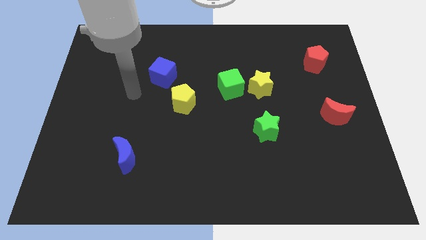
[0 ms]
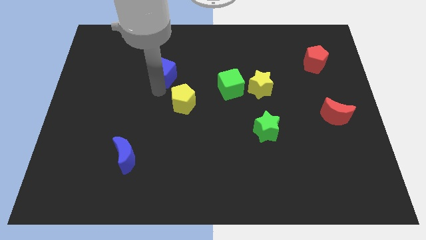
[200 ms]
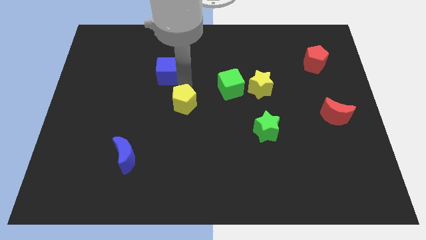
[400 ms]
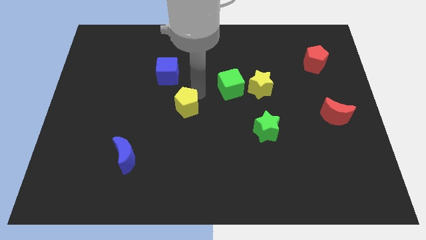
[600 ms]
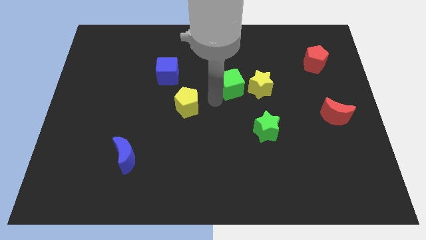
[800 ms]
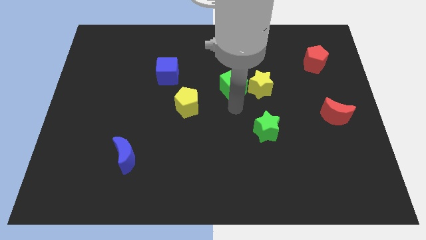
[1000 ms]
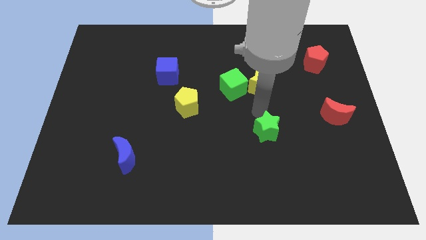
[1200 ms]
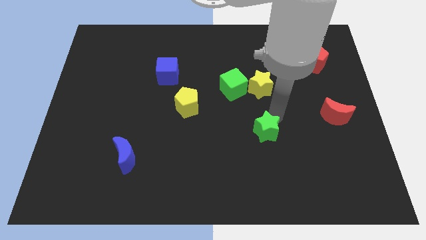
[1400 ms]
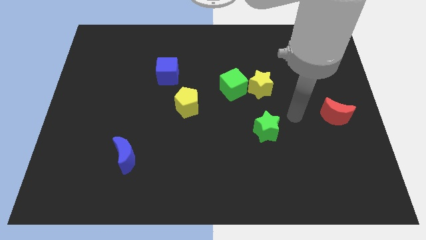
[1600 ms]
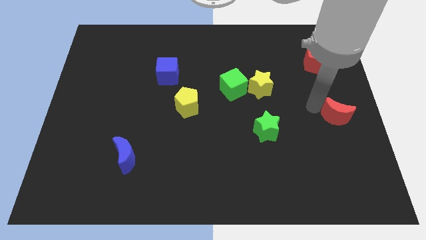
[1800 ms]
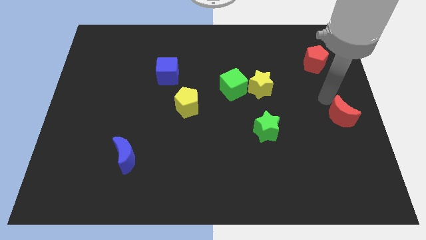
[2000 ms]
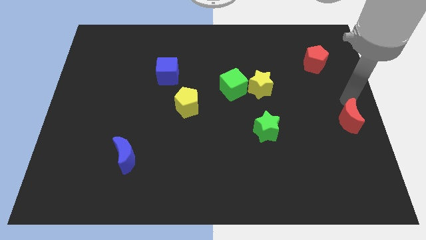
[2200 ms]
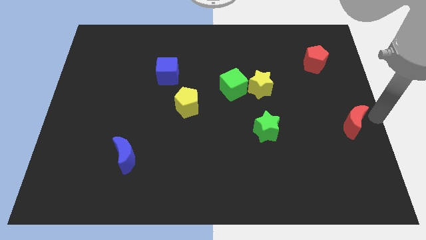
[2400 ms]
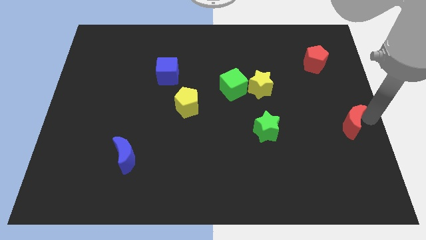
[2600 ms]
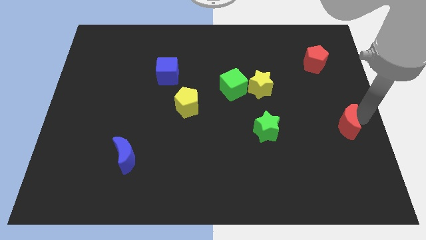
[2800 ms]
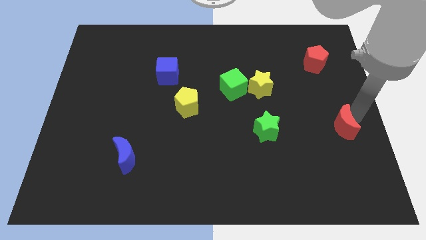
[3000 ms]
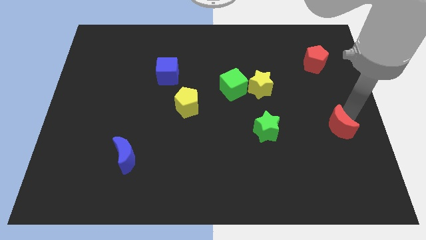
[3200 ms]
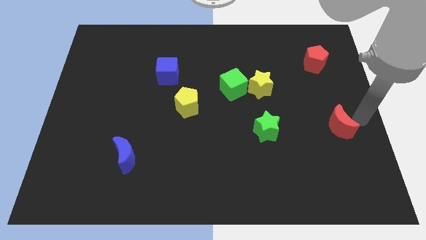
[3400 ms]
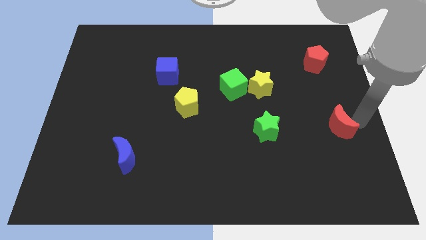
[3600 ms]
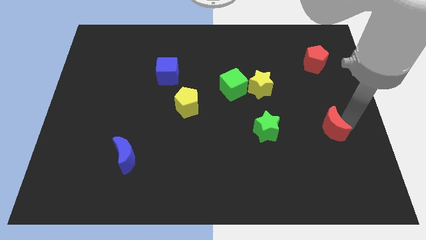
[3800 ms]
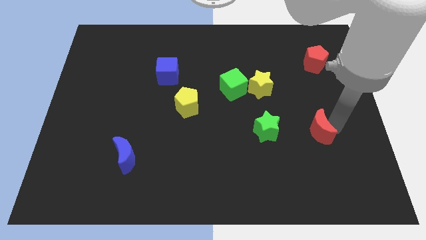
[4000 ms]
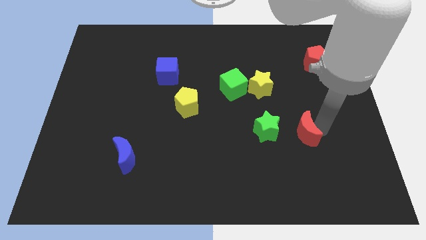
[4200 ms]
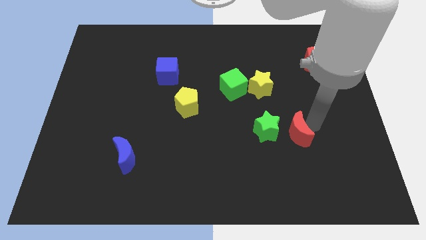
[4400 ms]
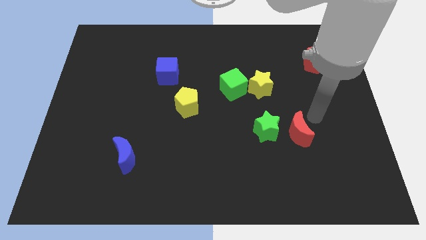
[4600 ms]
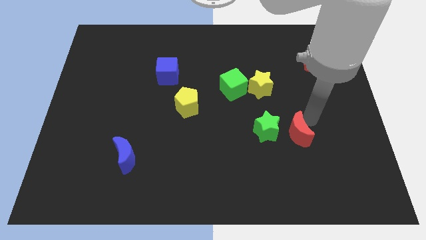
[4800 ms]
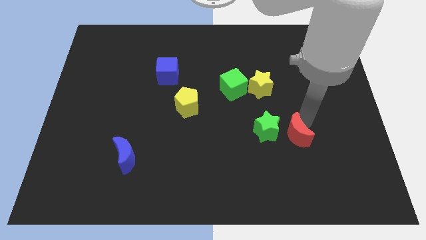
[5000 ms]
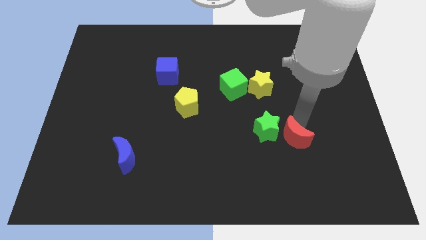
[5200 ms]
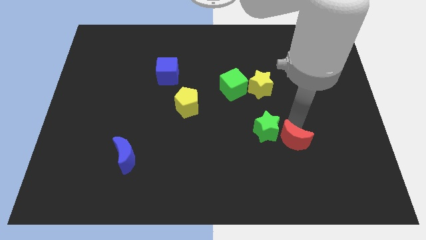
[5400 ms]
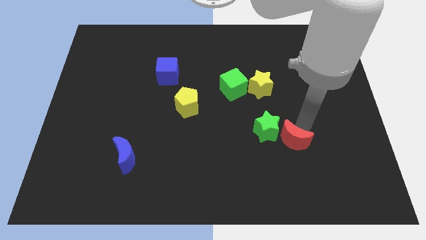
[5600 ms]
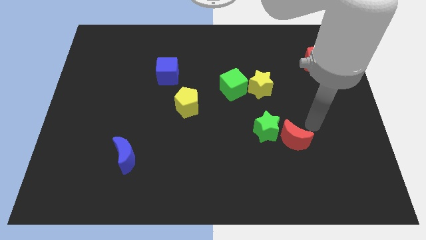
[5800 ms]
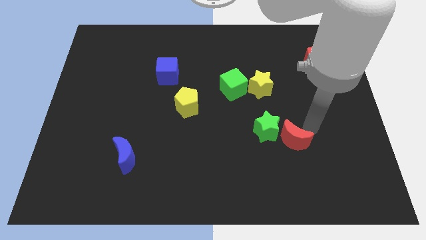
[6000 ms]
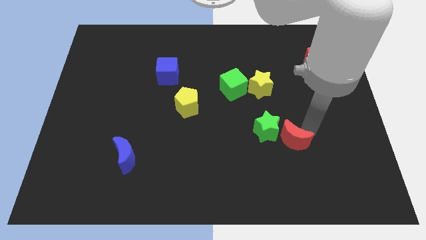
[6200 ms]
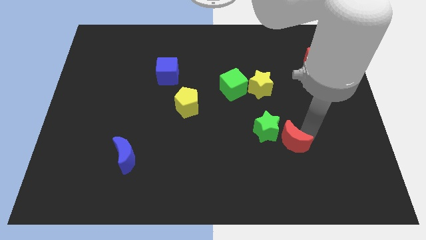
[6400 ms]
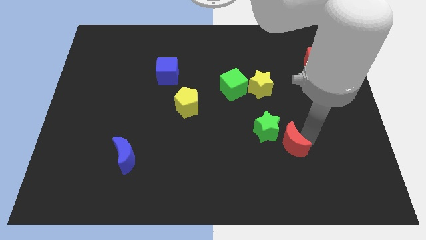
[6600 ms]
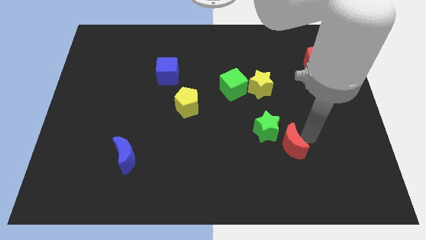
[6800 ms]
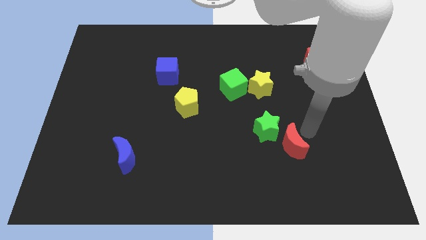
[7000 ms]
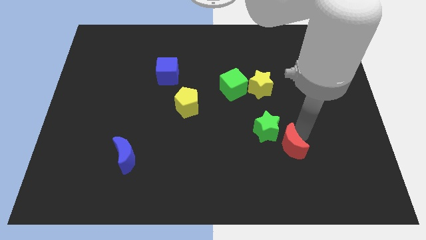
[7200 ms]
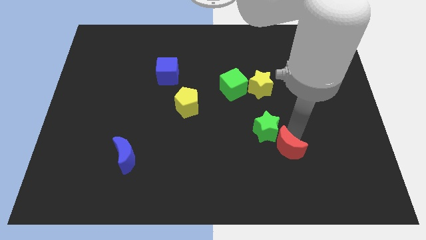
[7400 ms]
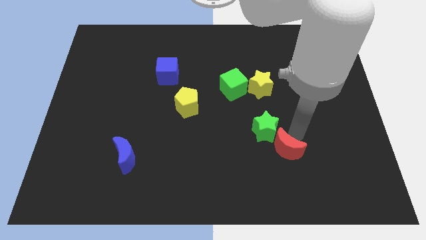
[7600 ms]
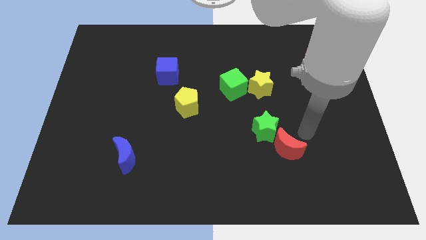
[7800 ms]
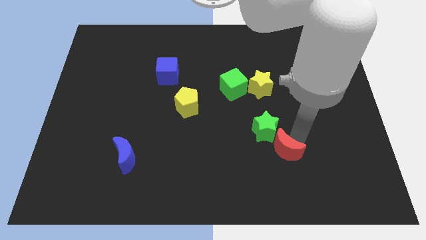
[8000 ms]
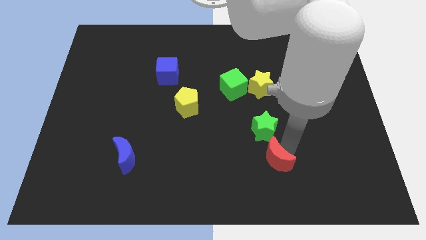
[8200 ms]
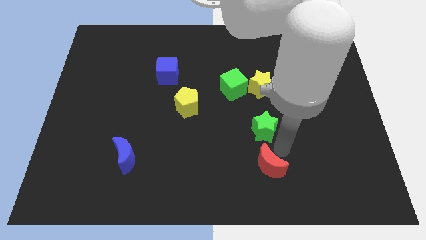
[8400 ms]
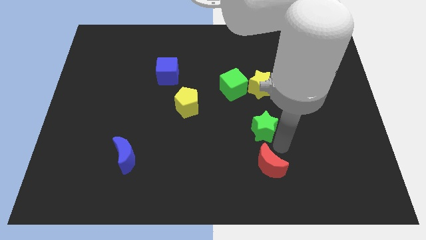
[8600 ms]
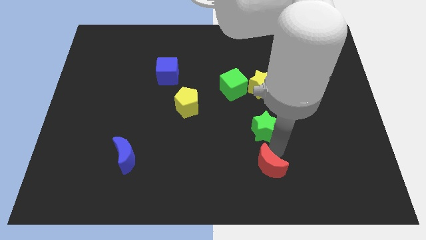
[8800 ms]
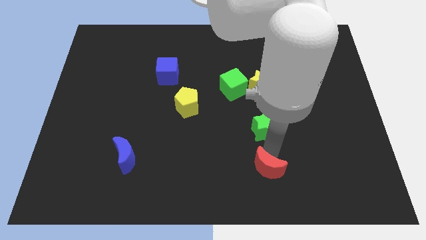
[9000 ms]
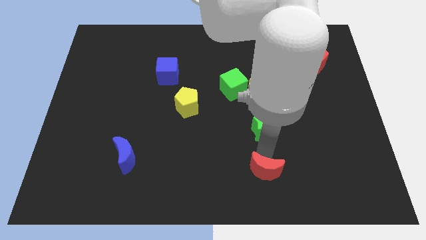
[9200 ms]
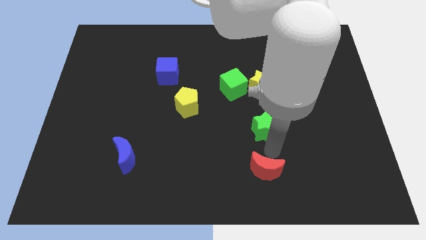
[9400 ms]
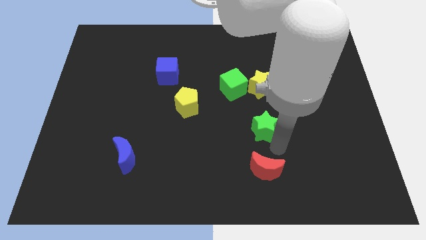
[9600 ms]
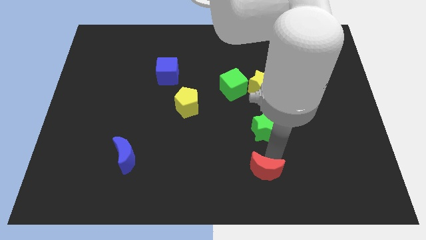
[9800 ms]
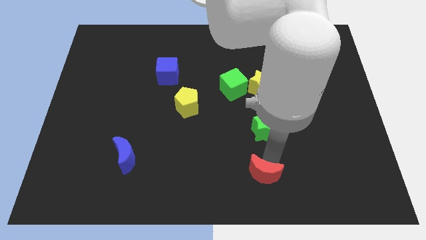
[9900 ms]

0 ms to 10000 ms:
put the red moon to the bottom side

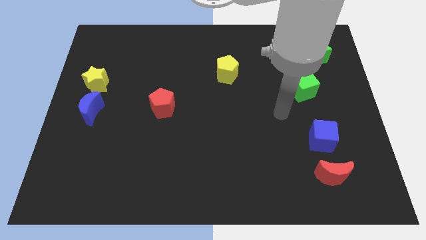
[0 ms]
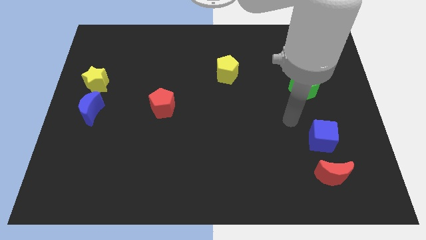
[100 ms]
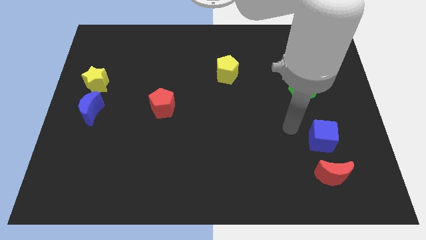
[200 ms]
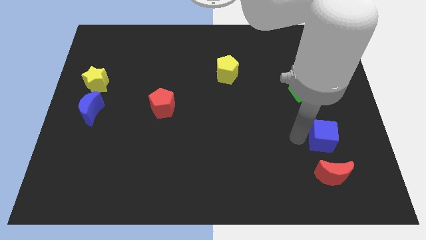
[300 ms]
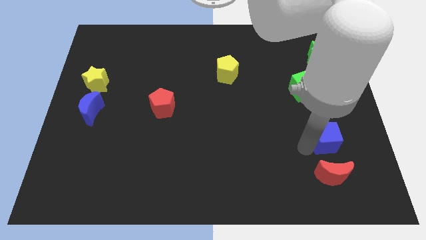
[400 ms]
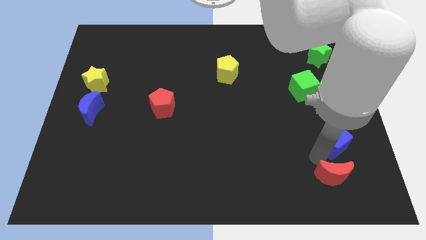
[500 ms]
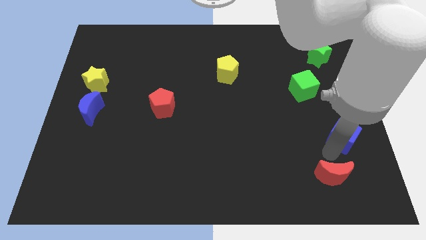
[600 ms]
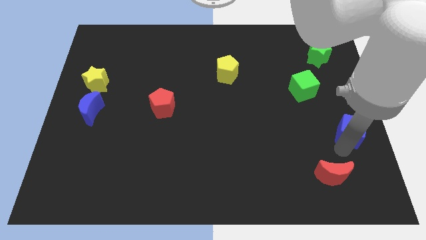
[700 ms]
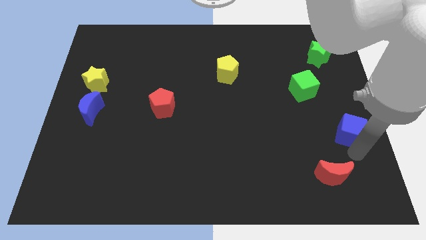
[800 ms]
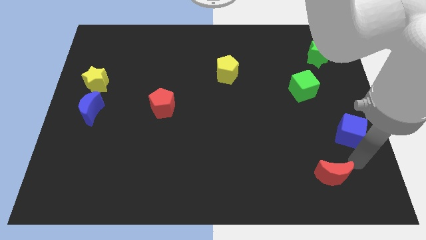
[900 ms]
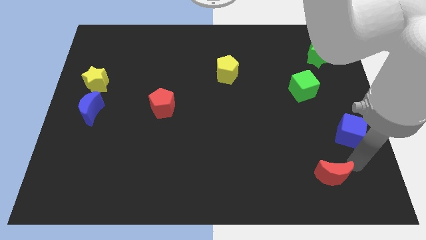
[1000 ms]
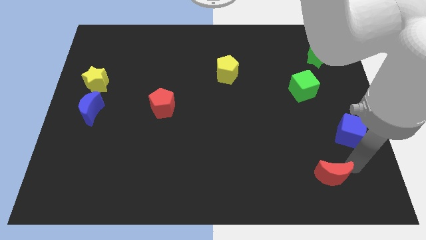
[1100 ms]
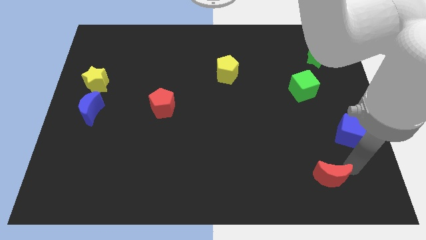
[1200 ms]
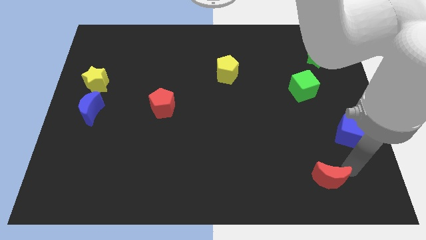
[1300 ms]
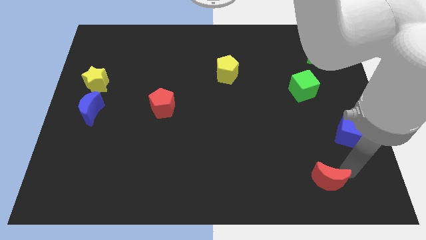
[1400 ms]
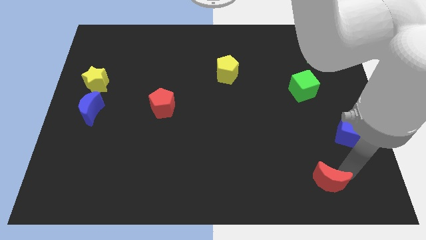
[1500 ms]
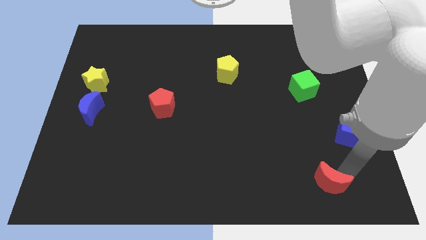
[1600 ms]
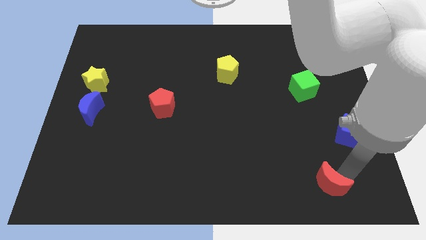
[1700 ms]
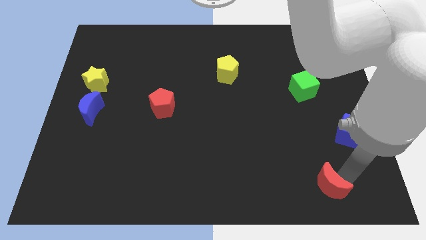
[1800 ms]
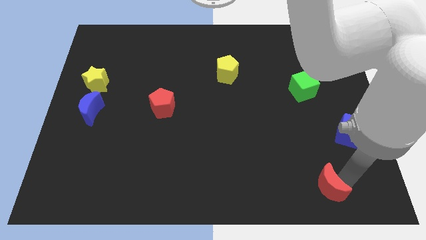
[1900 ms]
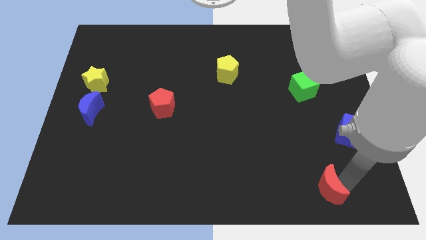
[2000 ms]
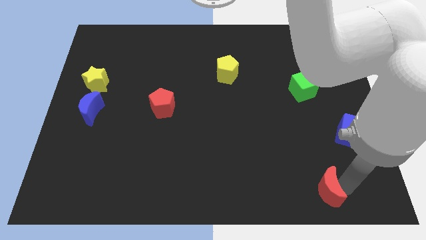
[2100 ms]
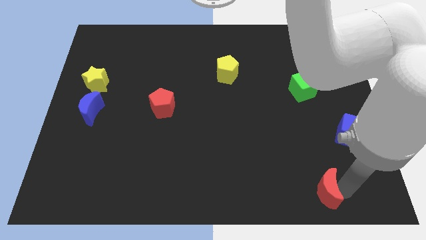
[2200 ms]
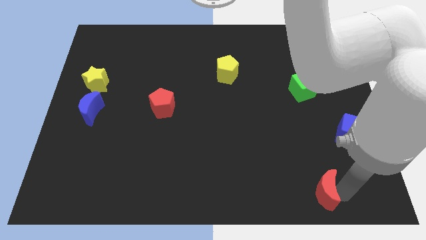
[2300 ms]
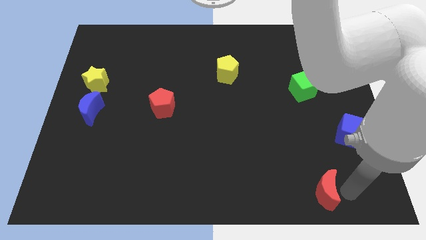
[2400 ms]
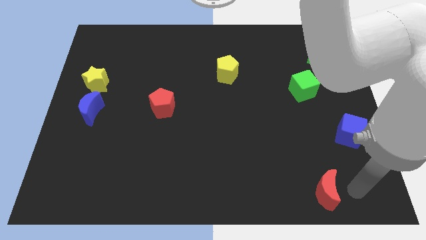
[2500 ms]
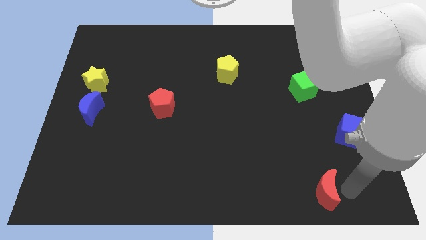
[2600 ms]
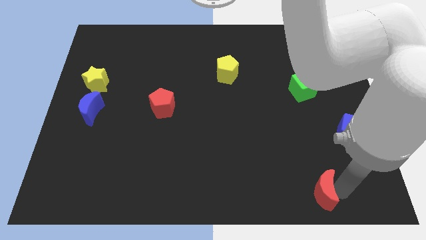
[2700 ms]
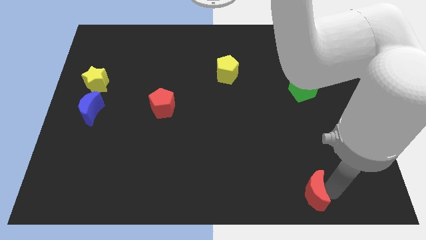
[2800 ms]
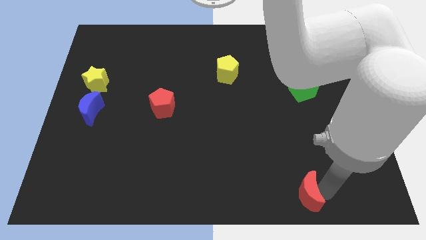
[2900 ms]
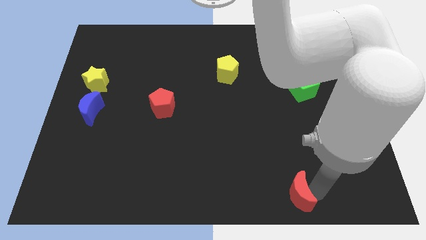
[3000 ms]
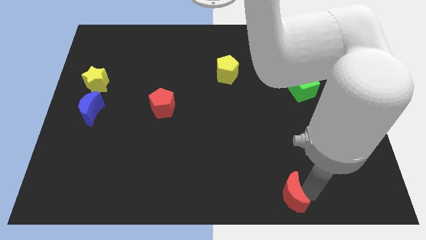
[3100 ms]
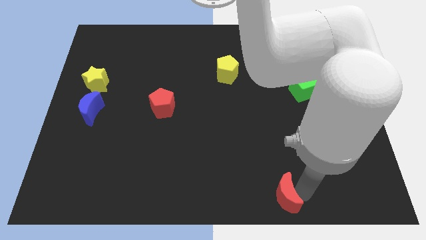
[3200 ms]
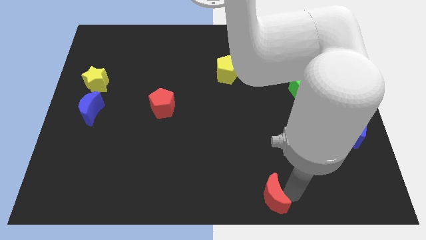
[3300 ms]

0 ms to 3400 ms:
push the red moon to the bottom

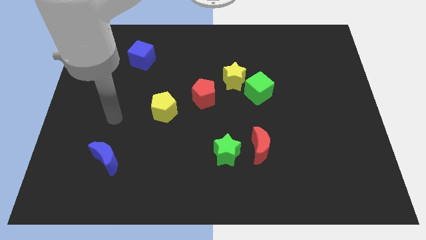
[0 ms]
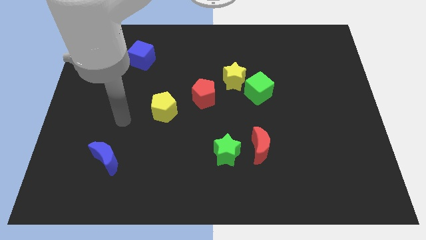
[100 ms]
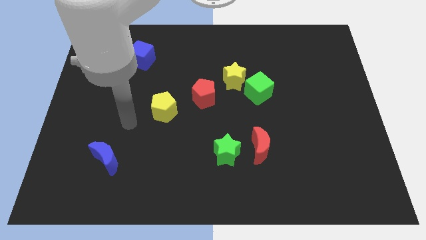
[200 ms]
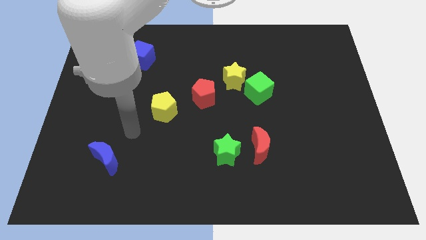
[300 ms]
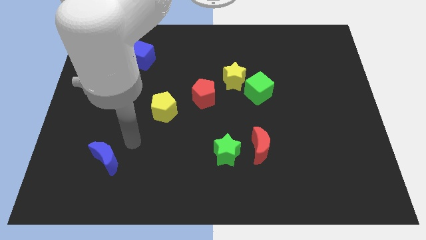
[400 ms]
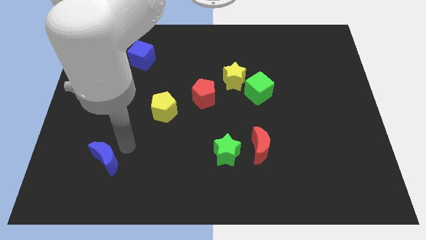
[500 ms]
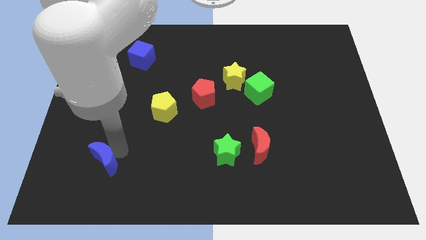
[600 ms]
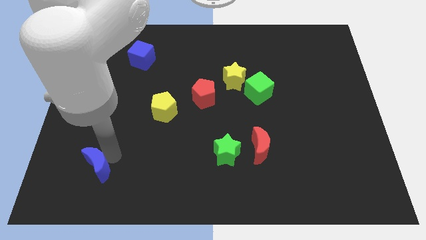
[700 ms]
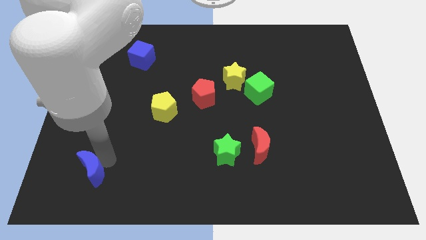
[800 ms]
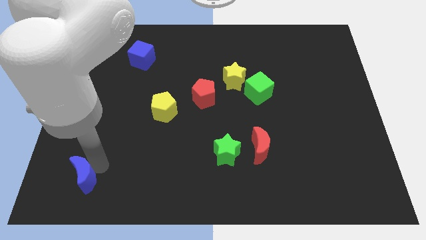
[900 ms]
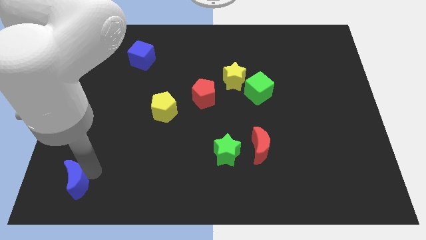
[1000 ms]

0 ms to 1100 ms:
move the blue moon to the bottom left corner
